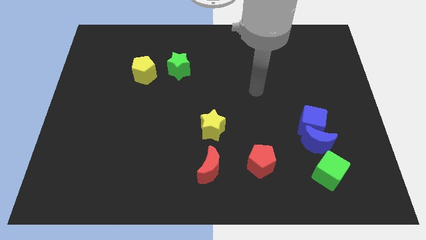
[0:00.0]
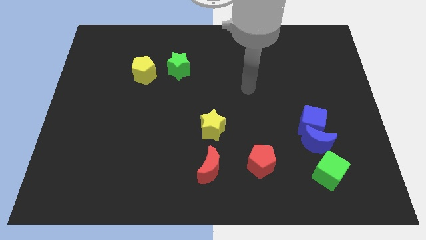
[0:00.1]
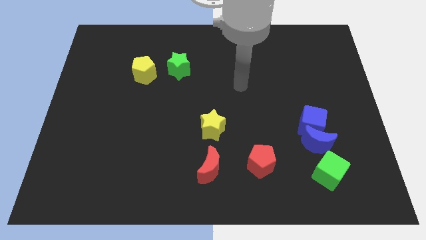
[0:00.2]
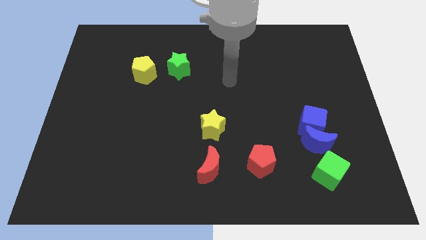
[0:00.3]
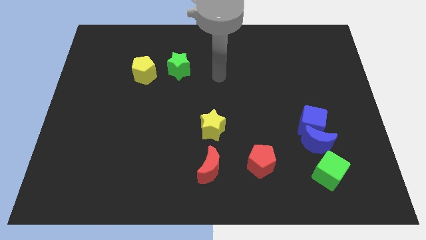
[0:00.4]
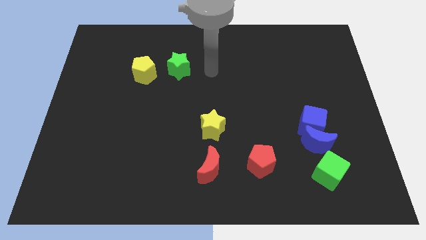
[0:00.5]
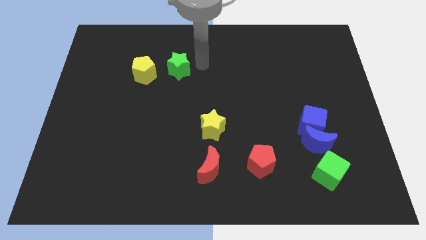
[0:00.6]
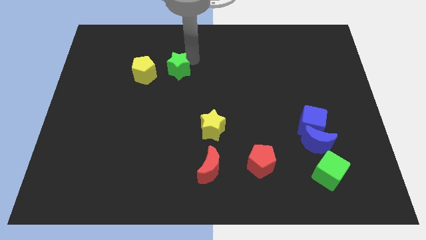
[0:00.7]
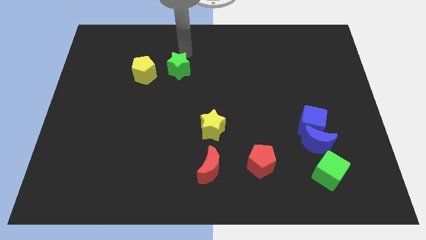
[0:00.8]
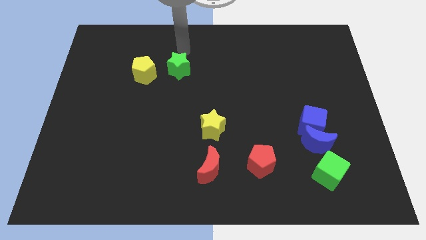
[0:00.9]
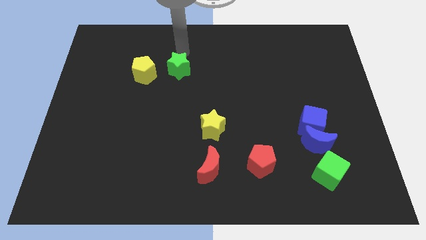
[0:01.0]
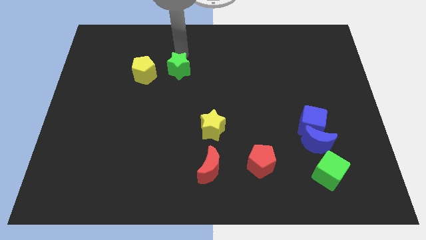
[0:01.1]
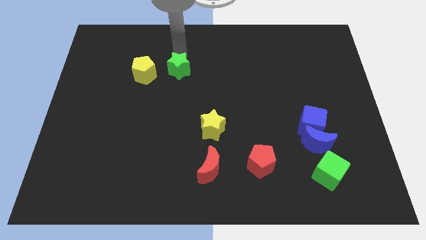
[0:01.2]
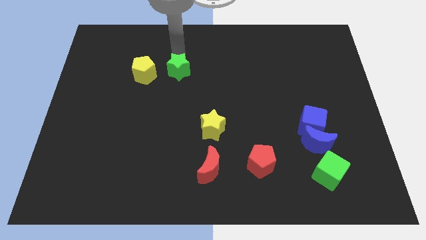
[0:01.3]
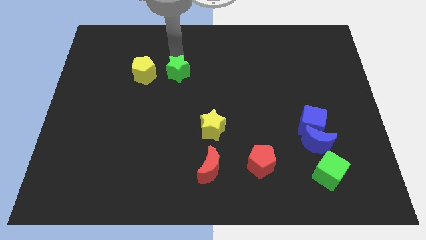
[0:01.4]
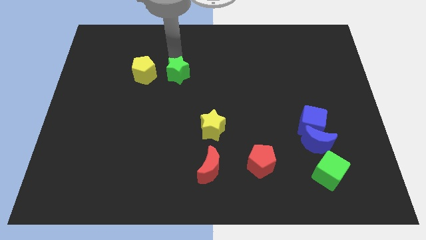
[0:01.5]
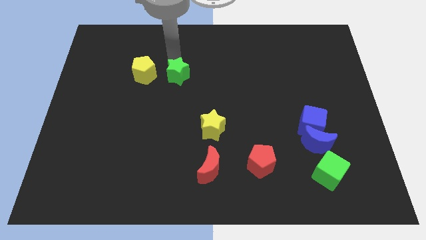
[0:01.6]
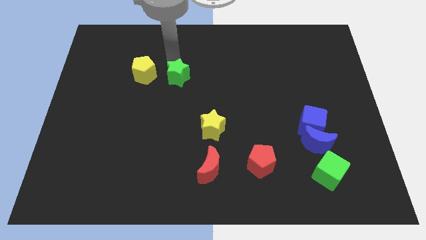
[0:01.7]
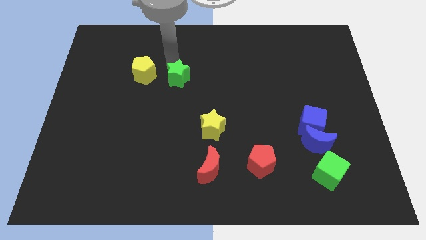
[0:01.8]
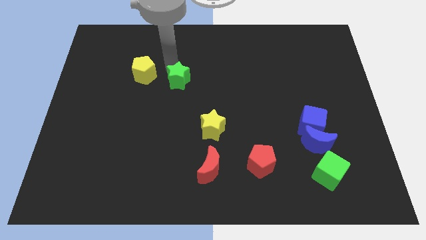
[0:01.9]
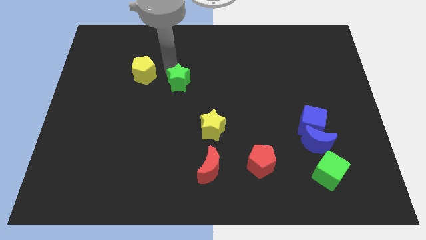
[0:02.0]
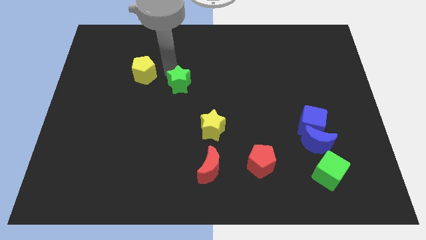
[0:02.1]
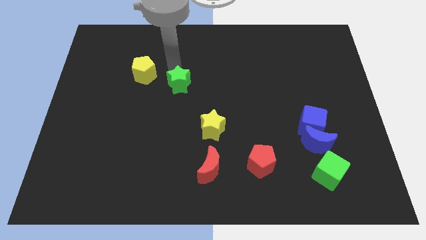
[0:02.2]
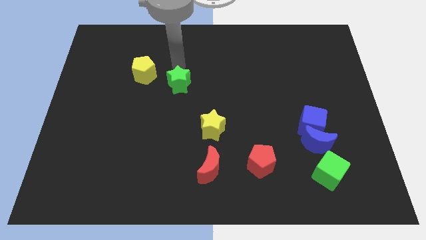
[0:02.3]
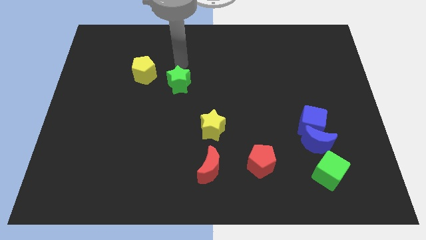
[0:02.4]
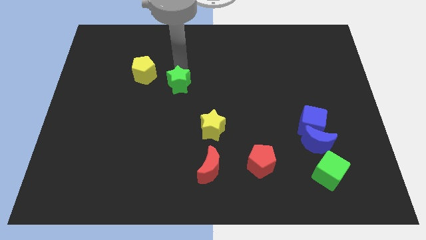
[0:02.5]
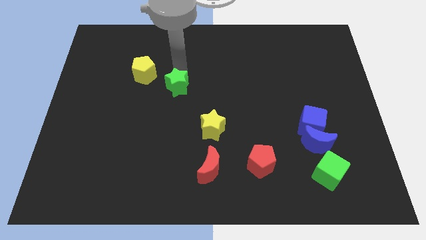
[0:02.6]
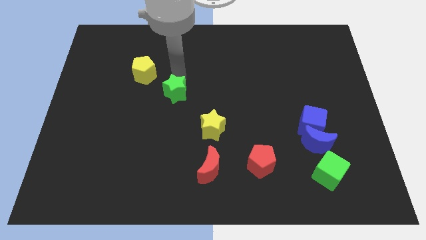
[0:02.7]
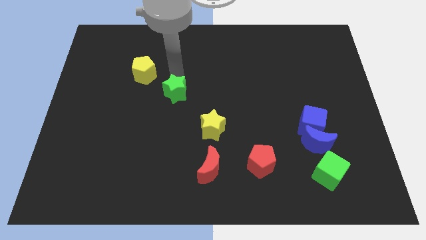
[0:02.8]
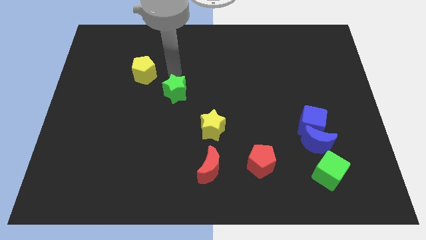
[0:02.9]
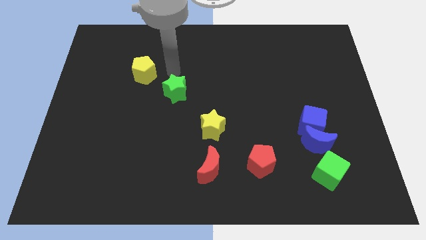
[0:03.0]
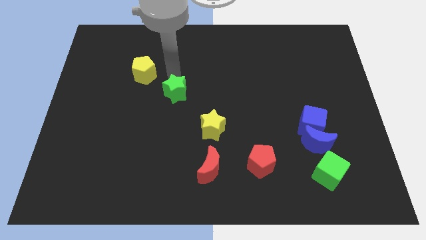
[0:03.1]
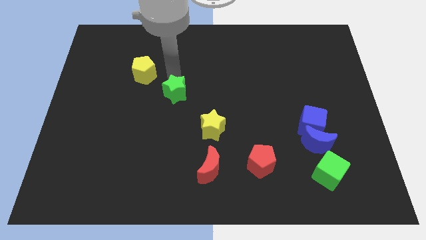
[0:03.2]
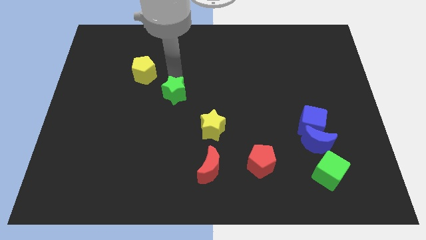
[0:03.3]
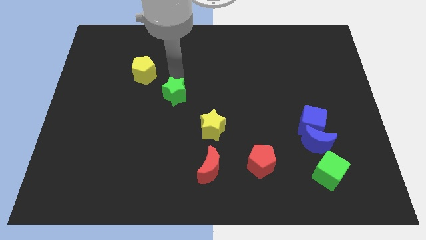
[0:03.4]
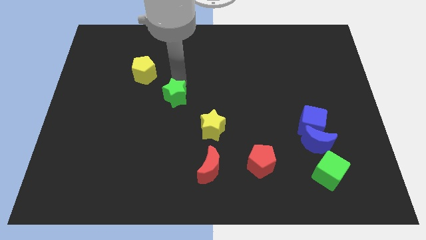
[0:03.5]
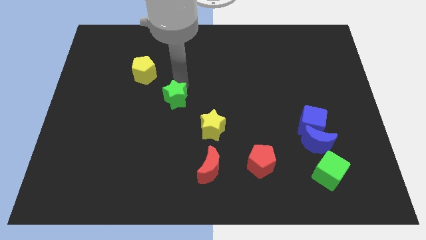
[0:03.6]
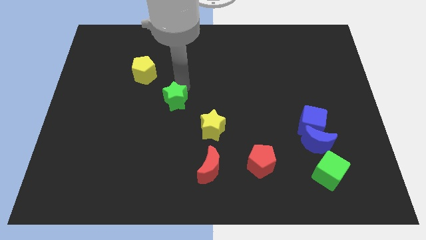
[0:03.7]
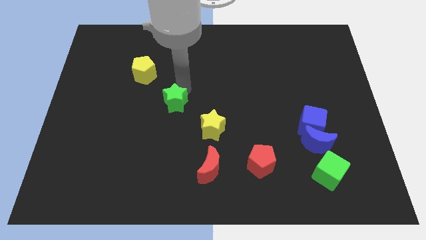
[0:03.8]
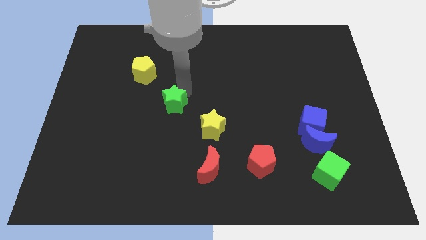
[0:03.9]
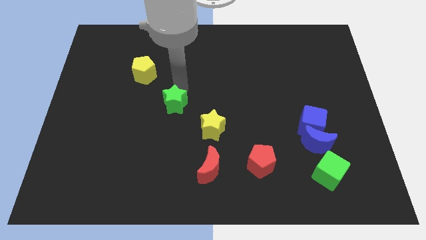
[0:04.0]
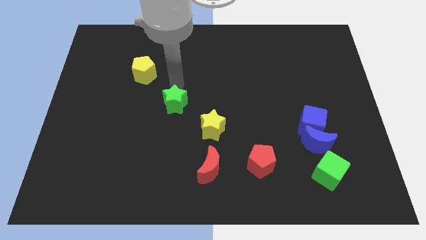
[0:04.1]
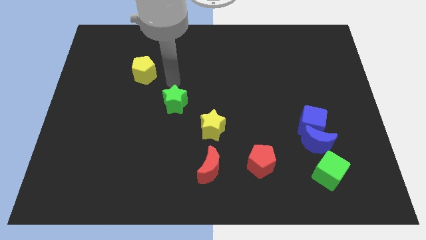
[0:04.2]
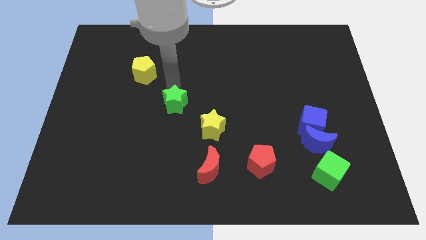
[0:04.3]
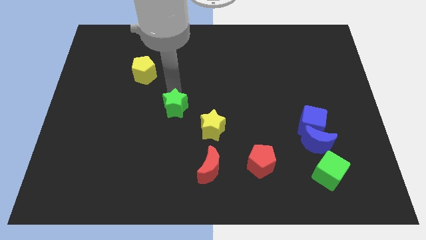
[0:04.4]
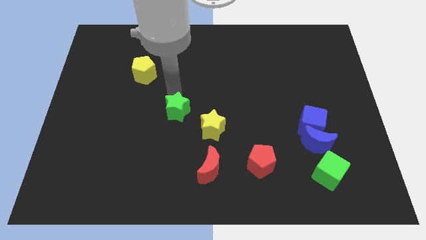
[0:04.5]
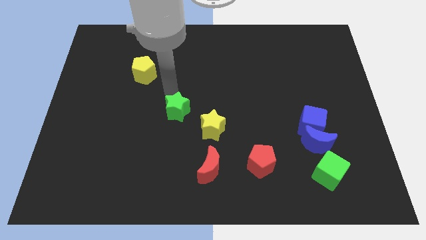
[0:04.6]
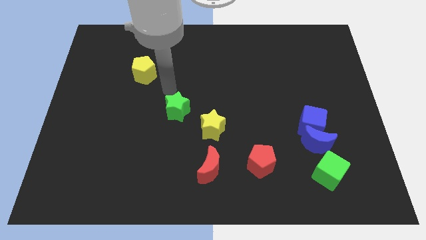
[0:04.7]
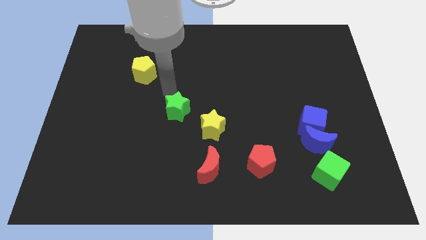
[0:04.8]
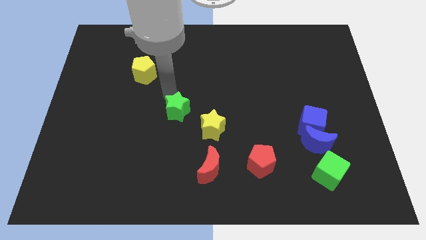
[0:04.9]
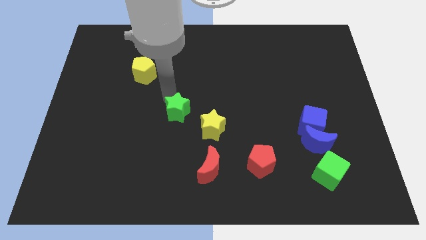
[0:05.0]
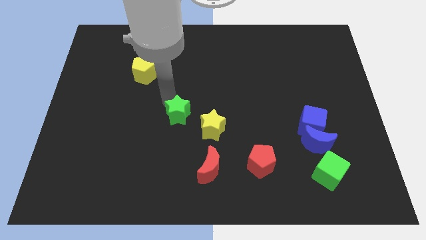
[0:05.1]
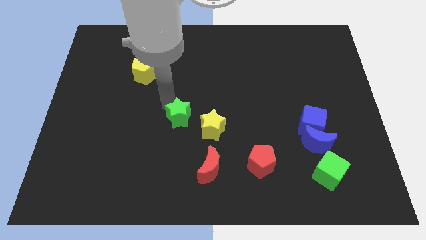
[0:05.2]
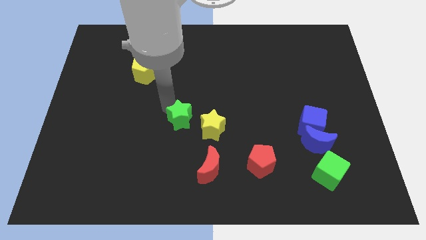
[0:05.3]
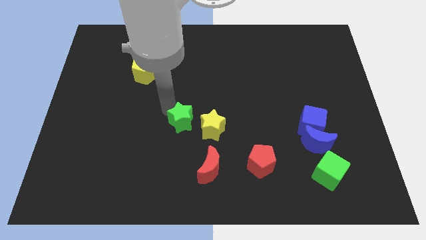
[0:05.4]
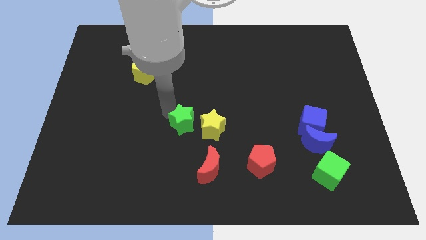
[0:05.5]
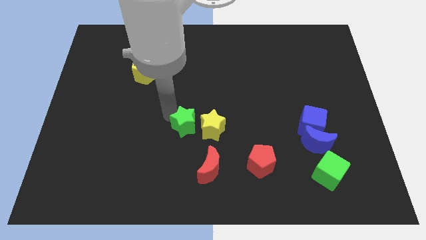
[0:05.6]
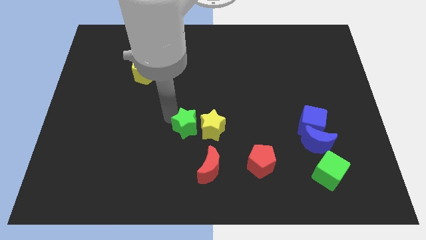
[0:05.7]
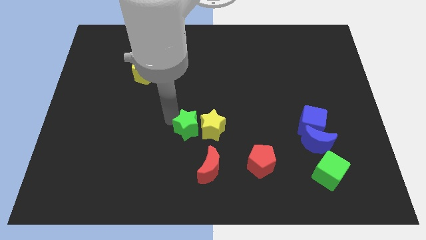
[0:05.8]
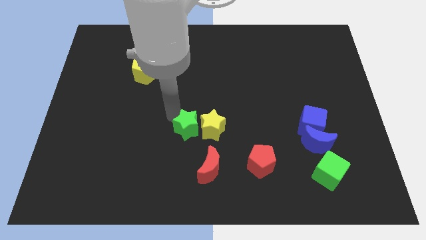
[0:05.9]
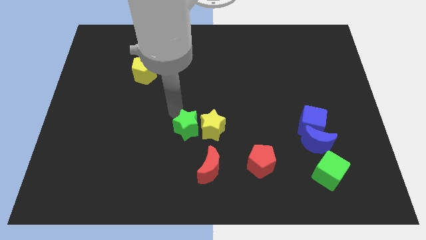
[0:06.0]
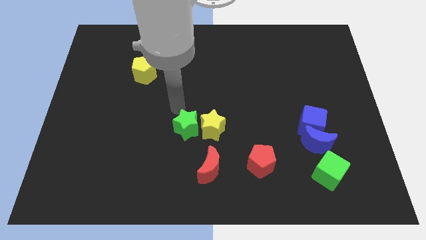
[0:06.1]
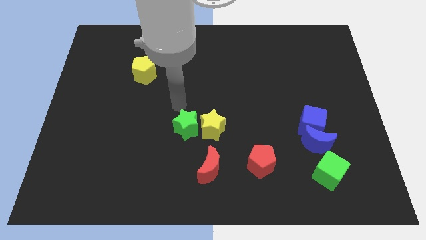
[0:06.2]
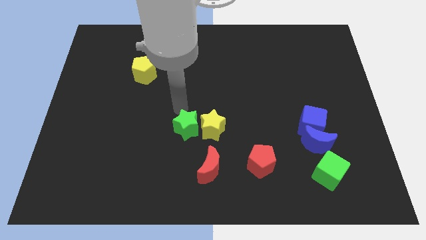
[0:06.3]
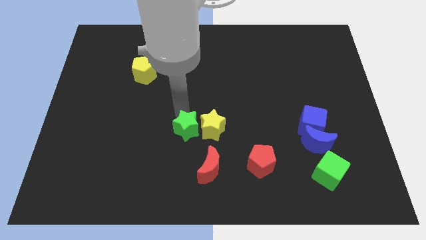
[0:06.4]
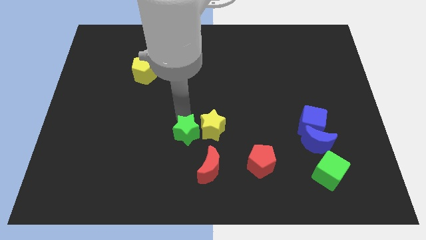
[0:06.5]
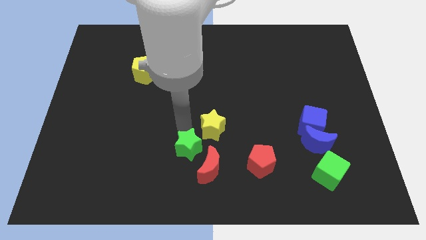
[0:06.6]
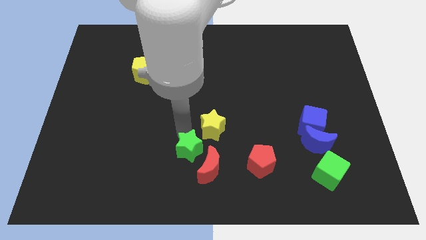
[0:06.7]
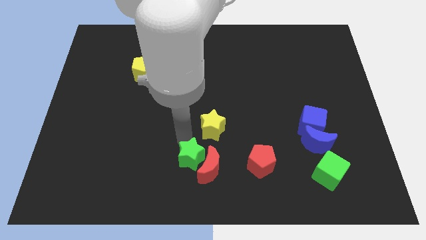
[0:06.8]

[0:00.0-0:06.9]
move the green star next to the red moon

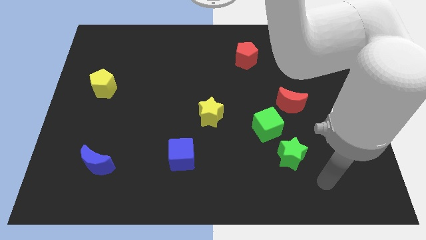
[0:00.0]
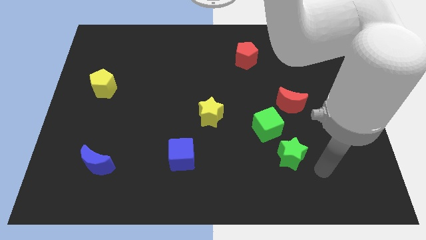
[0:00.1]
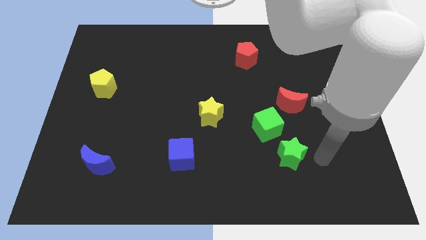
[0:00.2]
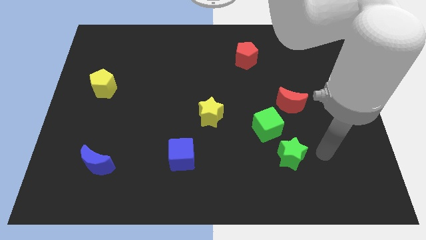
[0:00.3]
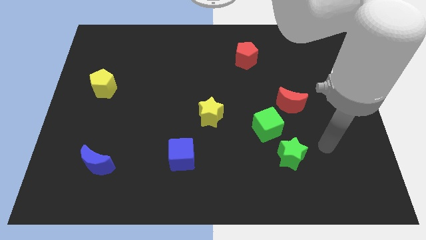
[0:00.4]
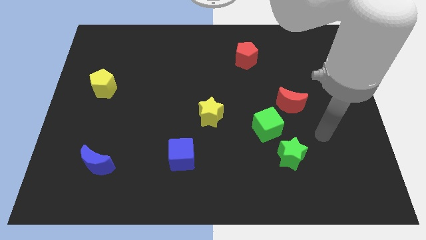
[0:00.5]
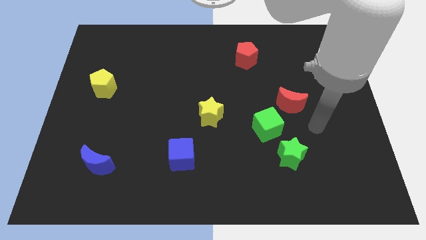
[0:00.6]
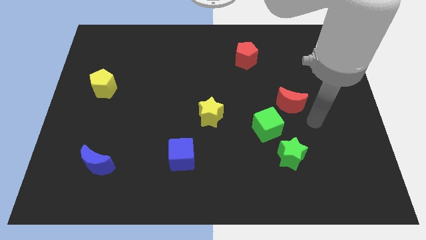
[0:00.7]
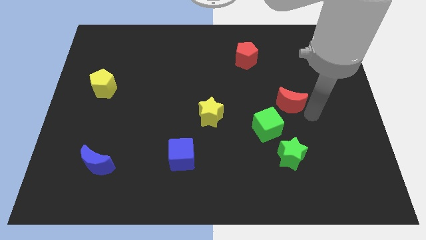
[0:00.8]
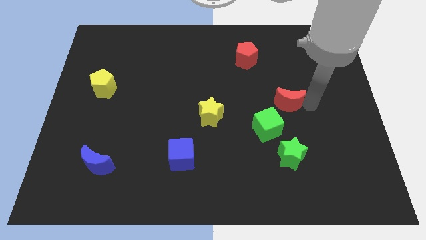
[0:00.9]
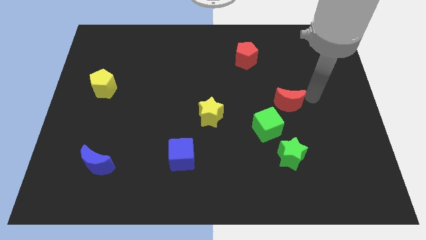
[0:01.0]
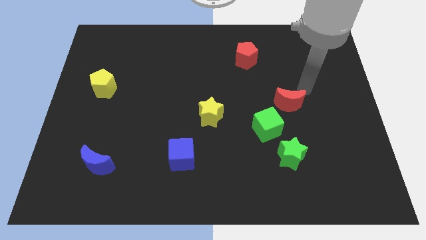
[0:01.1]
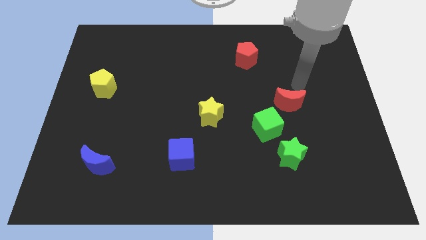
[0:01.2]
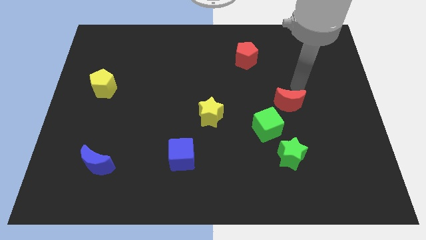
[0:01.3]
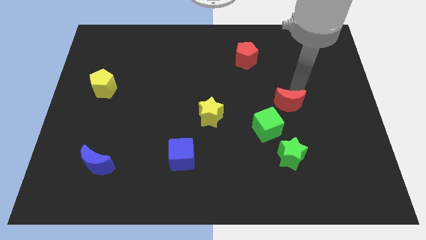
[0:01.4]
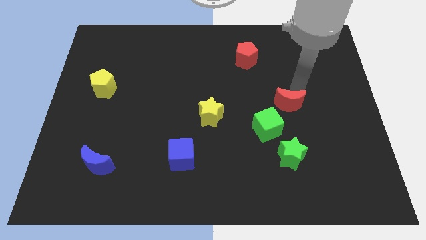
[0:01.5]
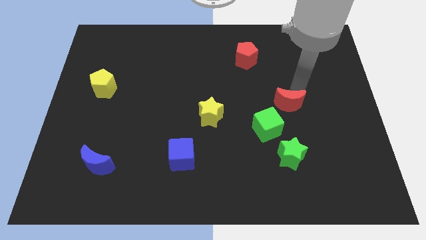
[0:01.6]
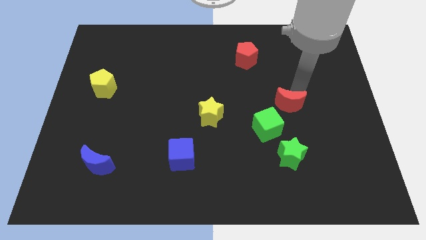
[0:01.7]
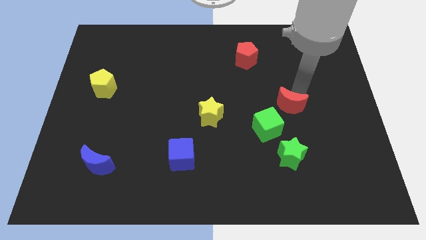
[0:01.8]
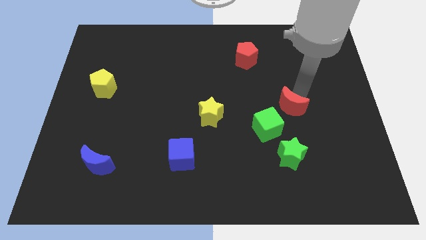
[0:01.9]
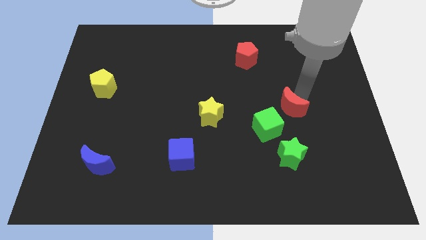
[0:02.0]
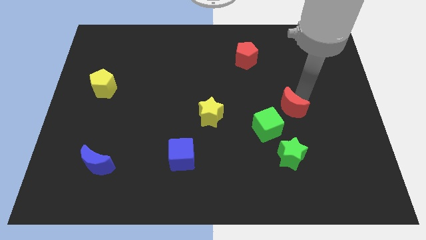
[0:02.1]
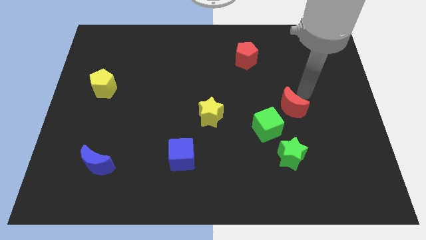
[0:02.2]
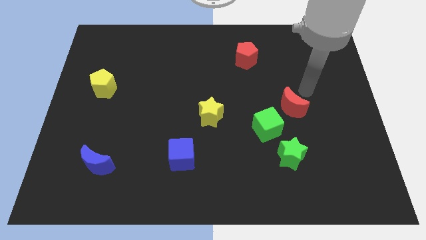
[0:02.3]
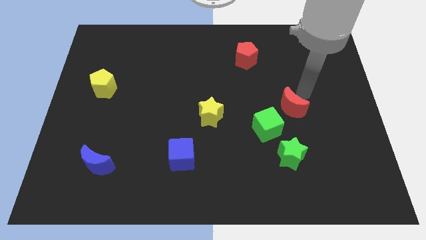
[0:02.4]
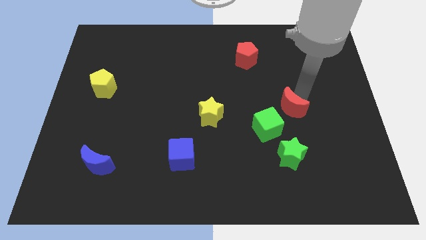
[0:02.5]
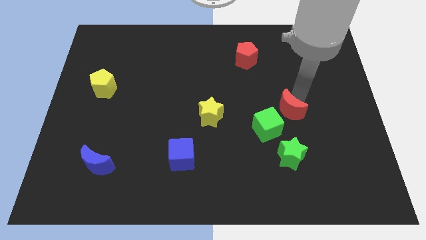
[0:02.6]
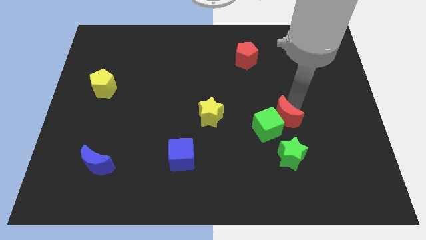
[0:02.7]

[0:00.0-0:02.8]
slide the red moon next to the green cube
